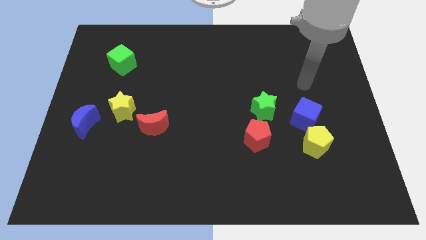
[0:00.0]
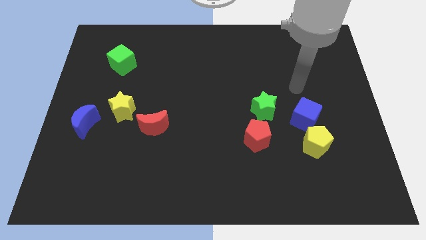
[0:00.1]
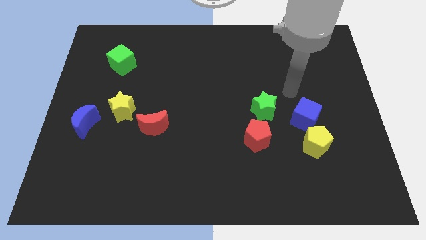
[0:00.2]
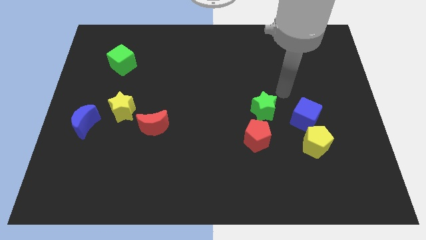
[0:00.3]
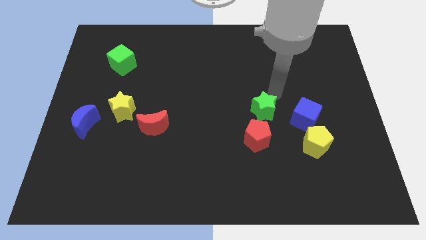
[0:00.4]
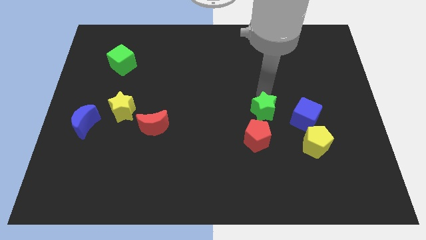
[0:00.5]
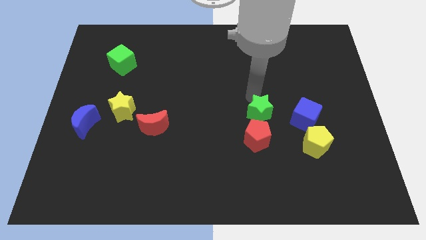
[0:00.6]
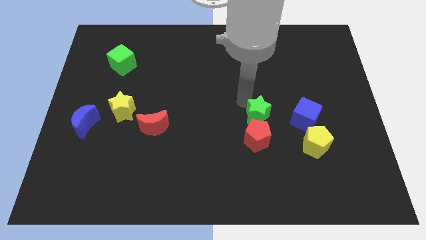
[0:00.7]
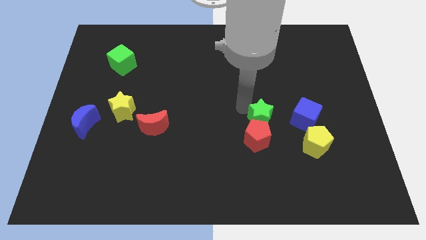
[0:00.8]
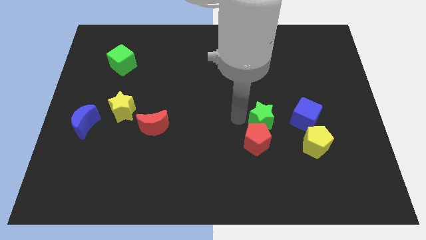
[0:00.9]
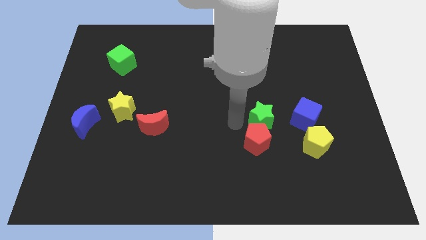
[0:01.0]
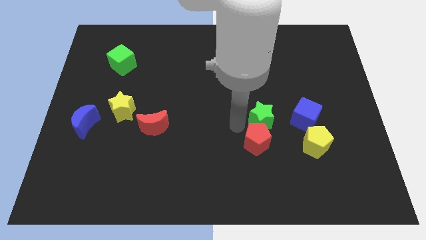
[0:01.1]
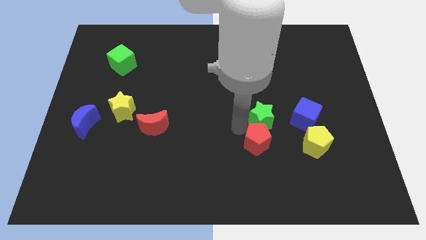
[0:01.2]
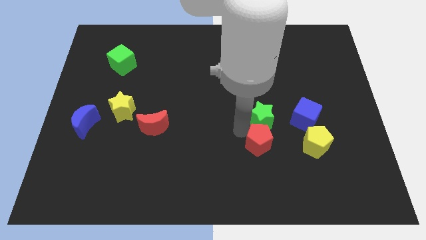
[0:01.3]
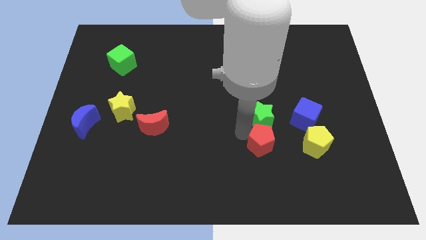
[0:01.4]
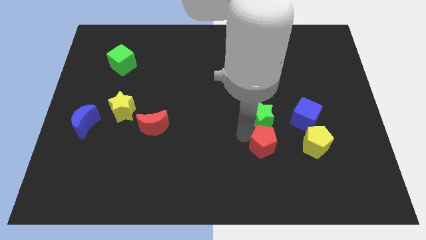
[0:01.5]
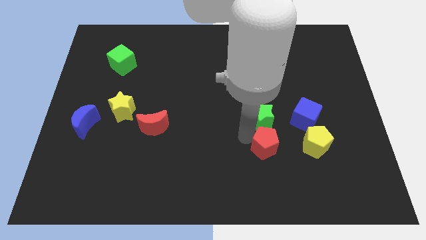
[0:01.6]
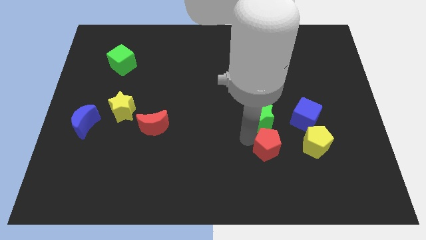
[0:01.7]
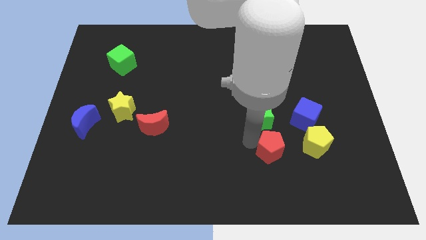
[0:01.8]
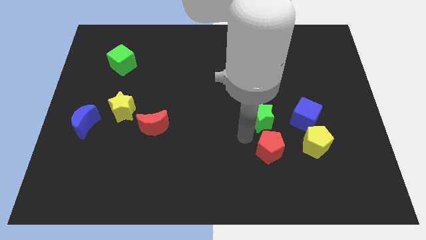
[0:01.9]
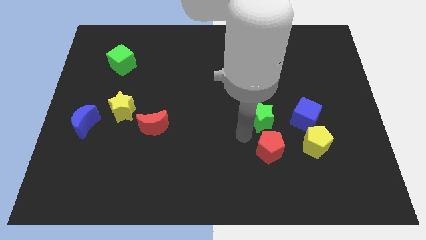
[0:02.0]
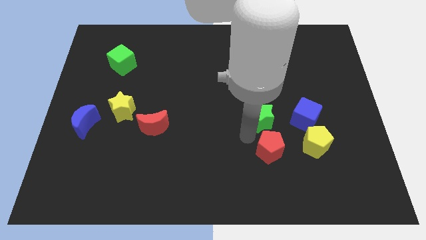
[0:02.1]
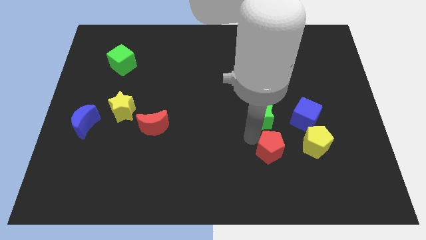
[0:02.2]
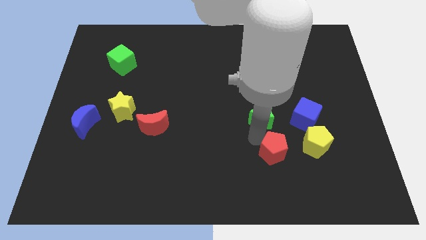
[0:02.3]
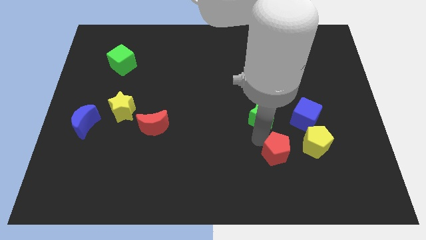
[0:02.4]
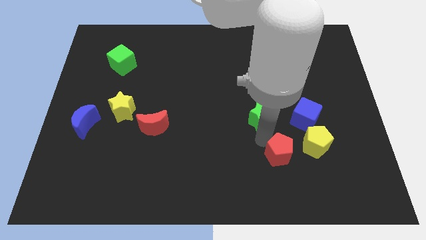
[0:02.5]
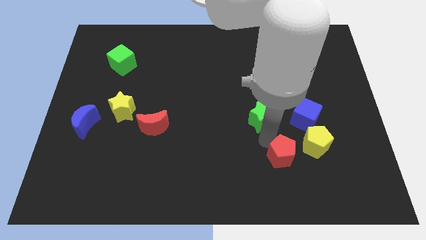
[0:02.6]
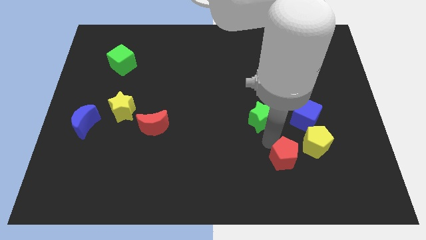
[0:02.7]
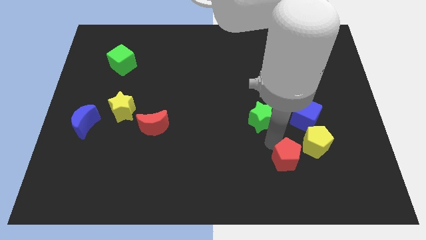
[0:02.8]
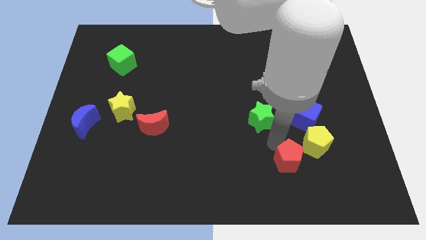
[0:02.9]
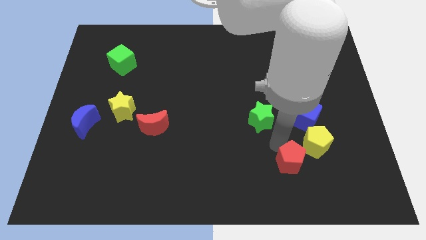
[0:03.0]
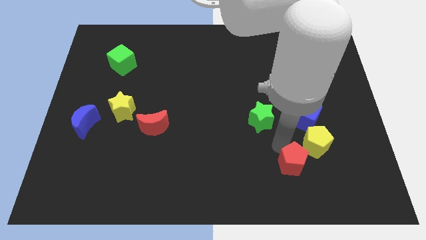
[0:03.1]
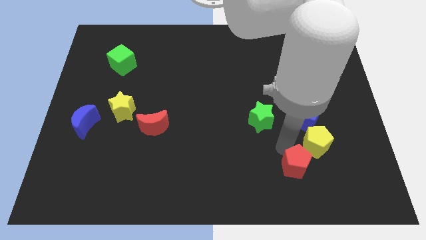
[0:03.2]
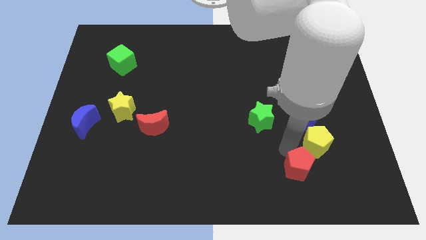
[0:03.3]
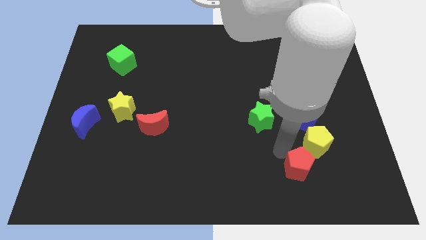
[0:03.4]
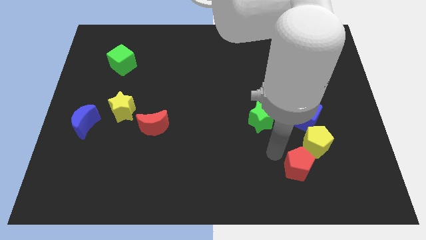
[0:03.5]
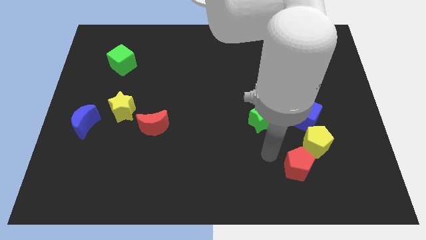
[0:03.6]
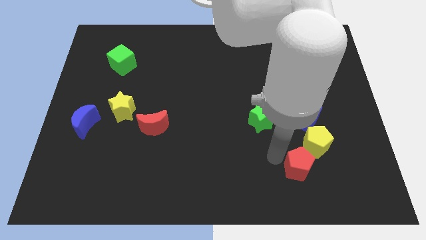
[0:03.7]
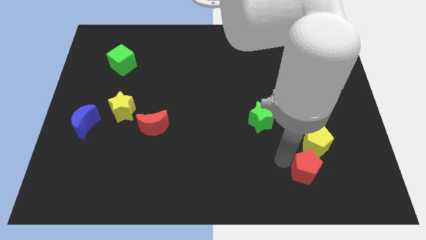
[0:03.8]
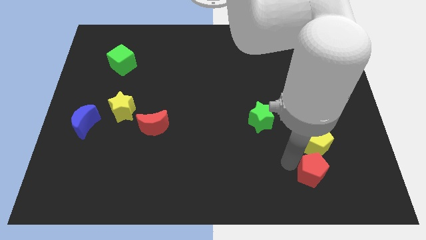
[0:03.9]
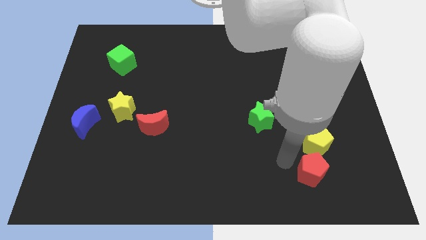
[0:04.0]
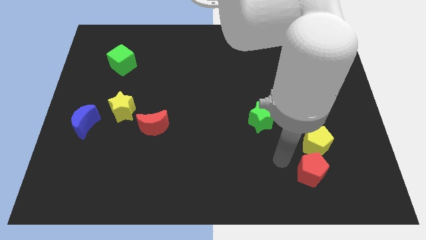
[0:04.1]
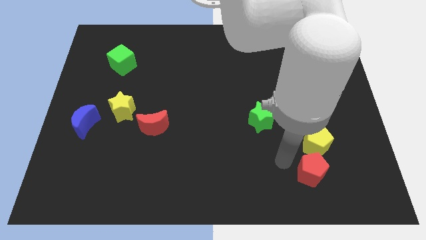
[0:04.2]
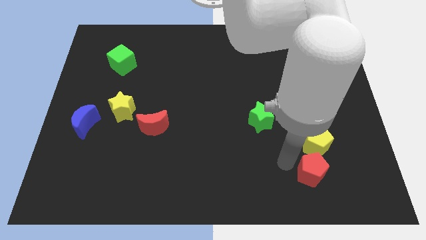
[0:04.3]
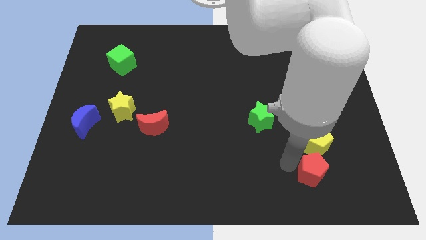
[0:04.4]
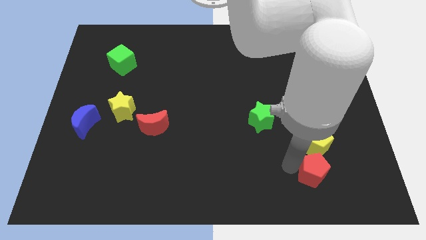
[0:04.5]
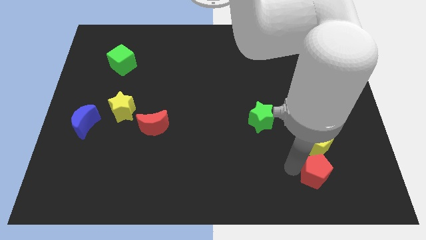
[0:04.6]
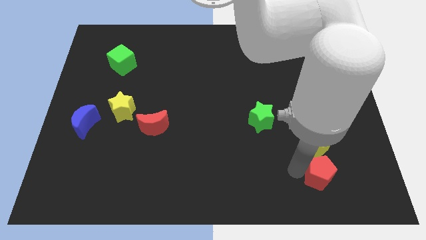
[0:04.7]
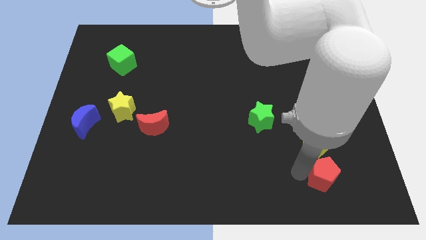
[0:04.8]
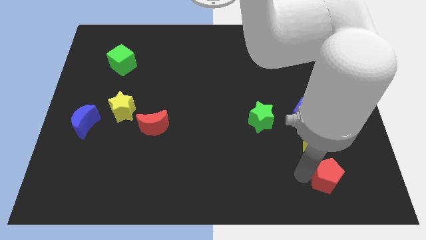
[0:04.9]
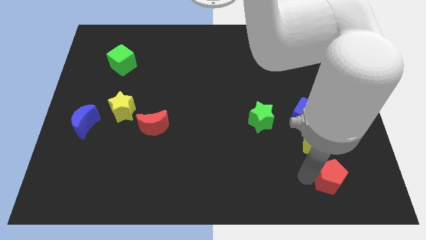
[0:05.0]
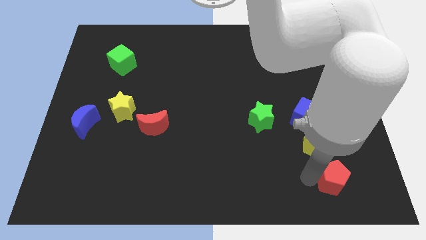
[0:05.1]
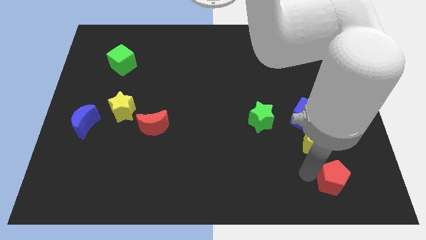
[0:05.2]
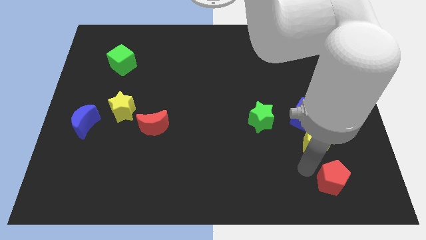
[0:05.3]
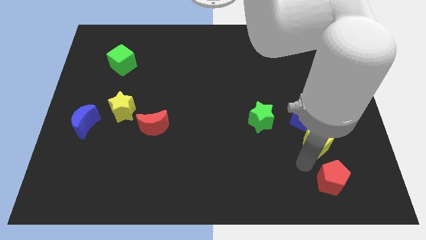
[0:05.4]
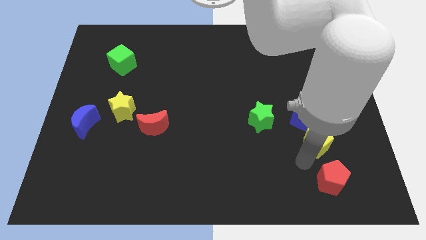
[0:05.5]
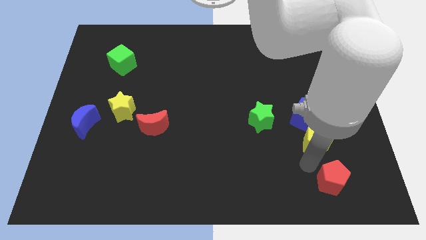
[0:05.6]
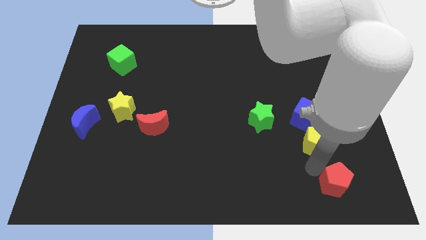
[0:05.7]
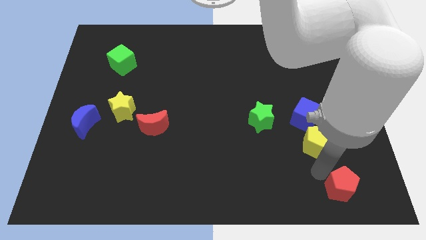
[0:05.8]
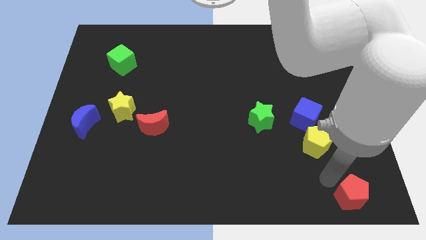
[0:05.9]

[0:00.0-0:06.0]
slide the red pentagon to the bottom right
